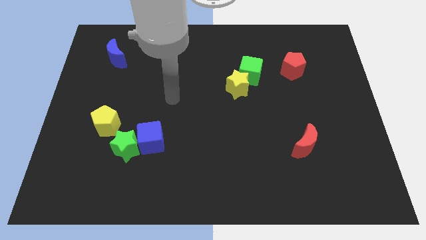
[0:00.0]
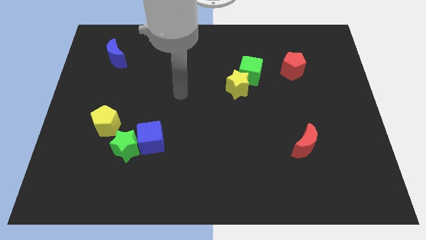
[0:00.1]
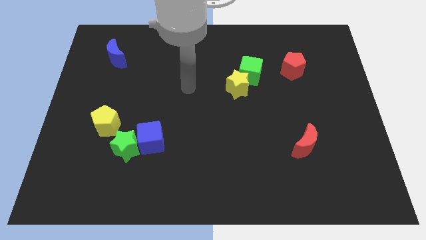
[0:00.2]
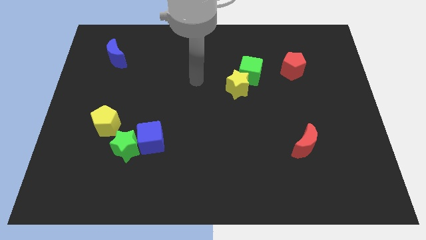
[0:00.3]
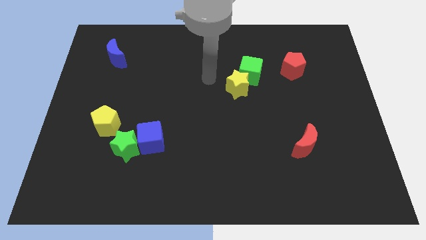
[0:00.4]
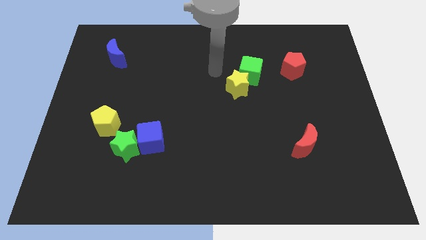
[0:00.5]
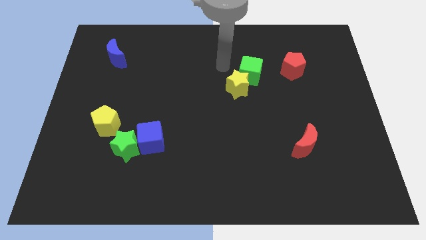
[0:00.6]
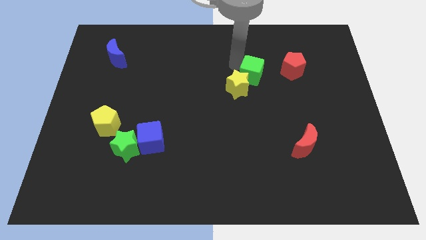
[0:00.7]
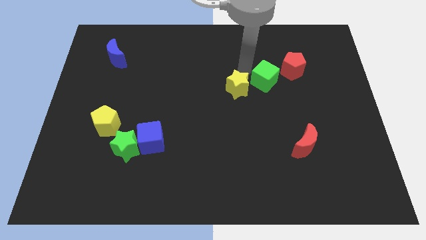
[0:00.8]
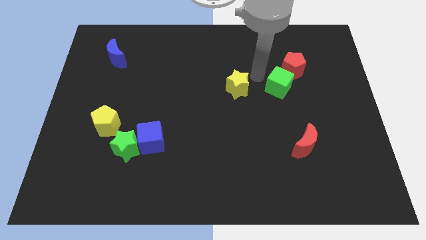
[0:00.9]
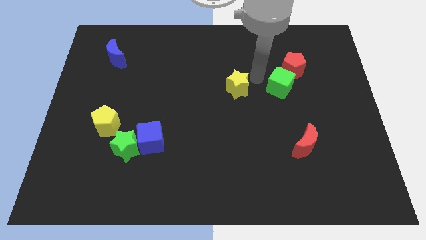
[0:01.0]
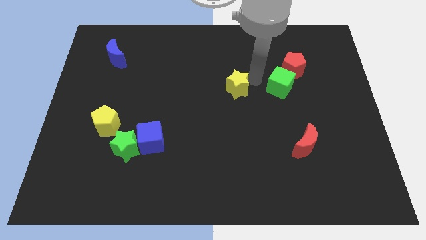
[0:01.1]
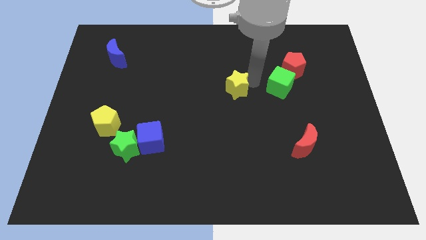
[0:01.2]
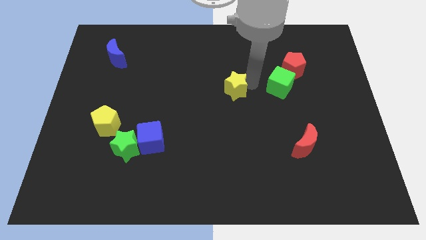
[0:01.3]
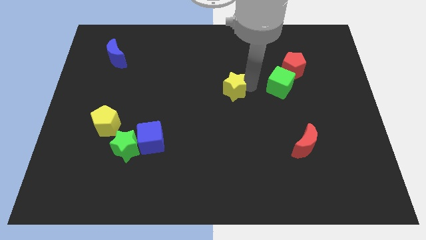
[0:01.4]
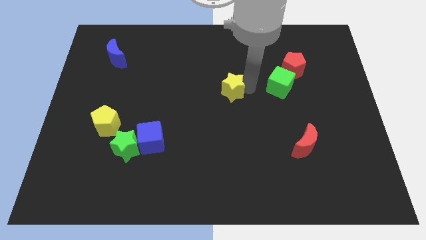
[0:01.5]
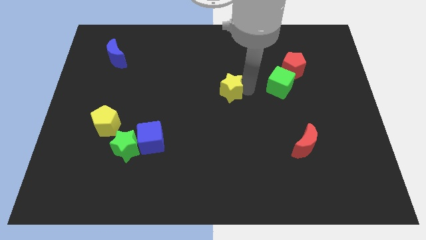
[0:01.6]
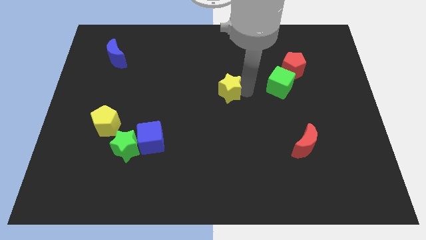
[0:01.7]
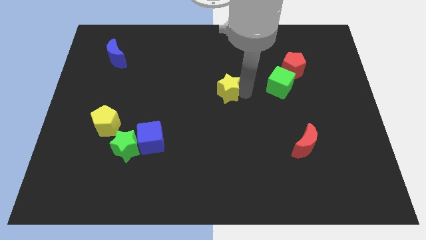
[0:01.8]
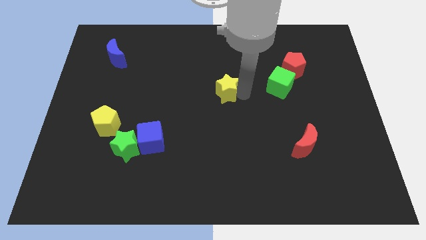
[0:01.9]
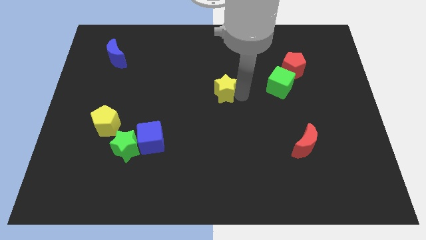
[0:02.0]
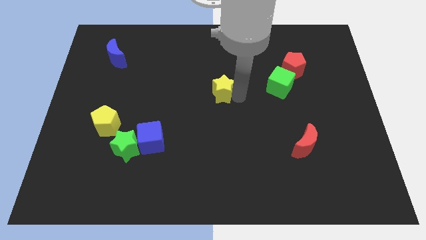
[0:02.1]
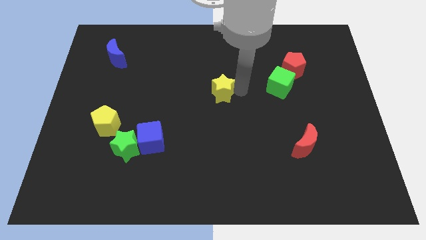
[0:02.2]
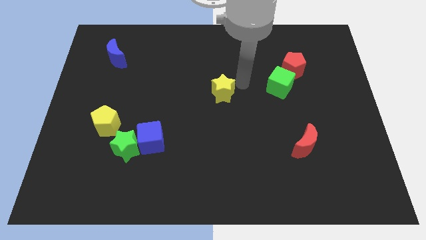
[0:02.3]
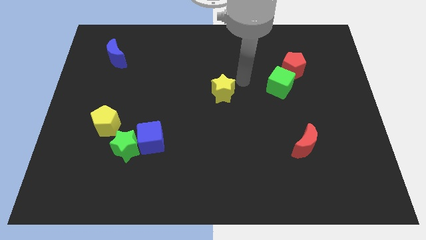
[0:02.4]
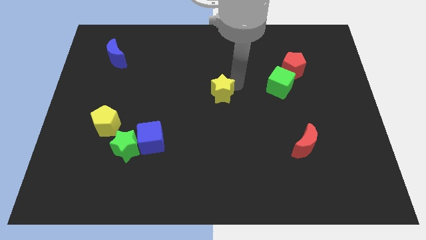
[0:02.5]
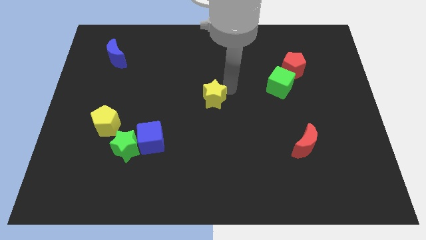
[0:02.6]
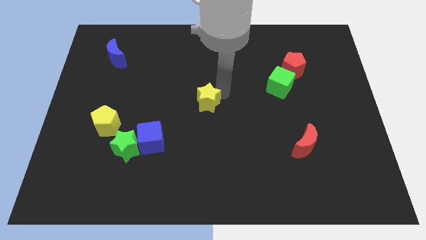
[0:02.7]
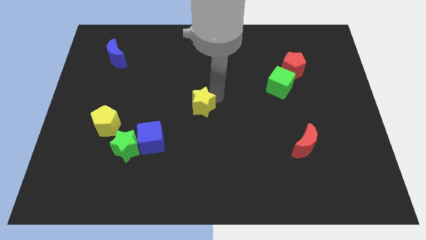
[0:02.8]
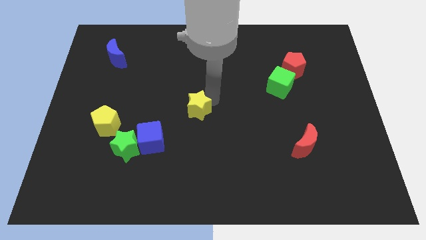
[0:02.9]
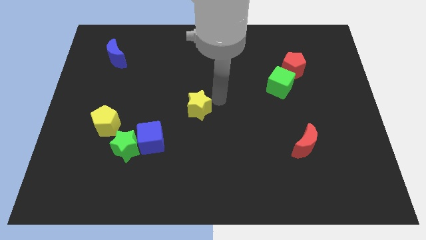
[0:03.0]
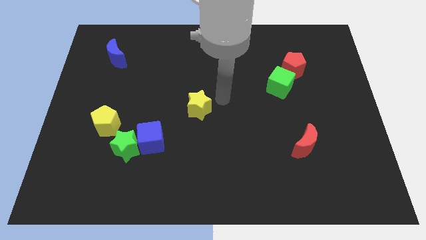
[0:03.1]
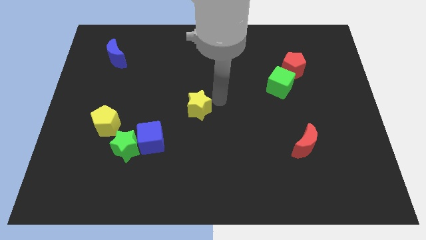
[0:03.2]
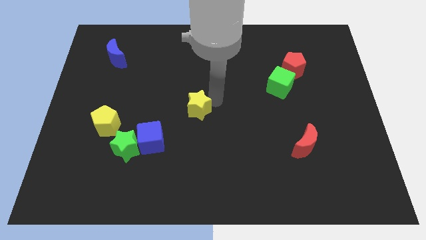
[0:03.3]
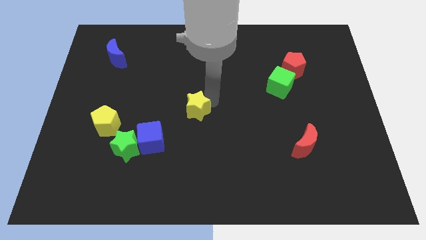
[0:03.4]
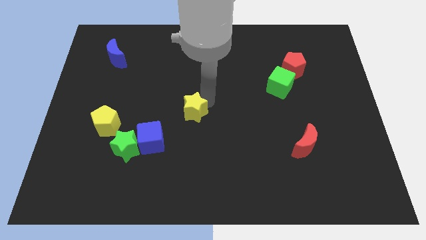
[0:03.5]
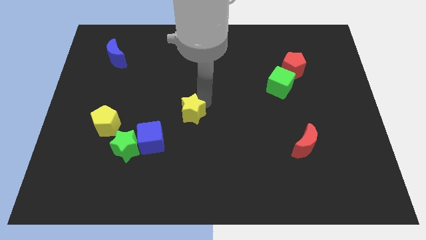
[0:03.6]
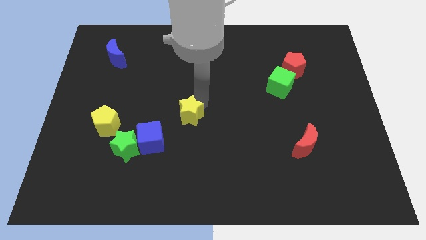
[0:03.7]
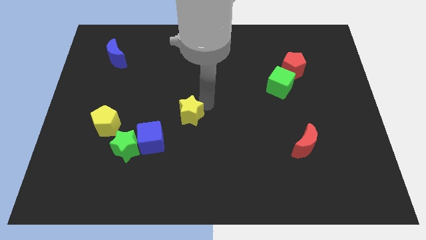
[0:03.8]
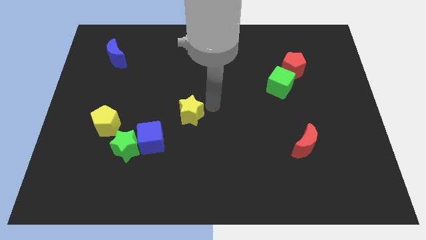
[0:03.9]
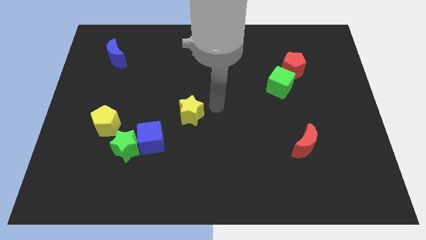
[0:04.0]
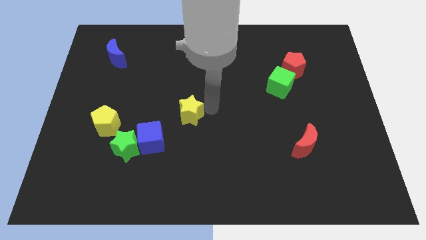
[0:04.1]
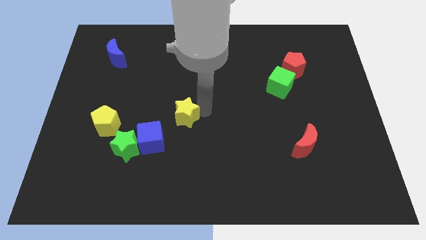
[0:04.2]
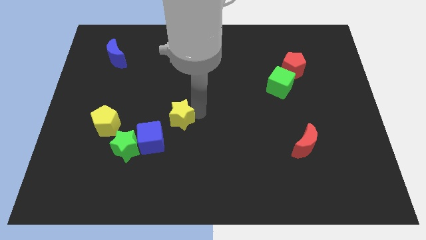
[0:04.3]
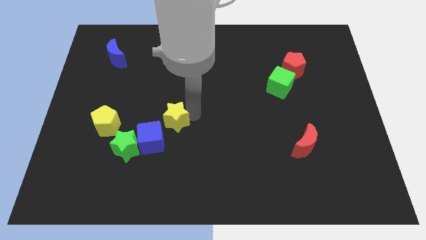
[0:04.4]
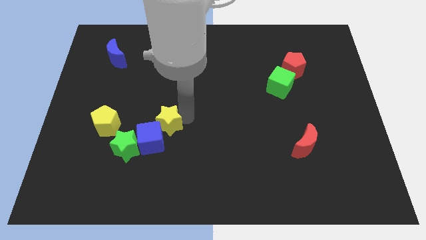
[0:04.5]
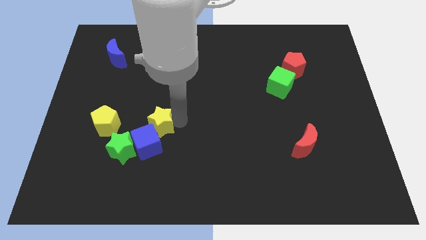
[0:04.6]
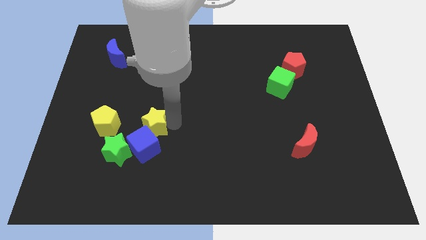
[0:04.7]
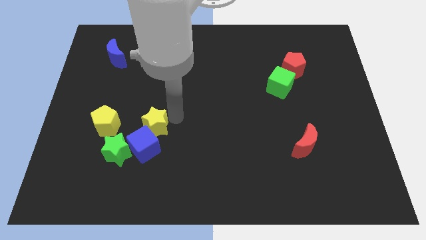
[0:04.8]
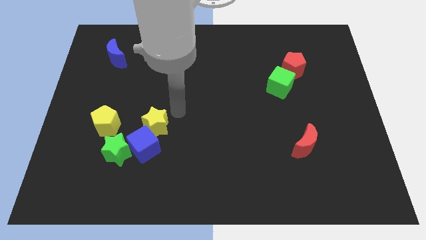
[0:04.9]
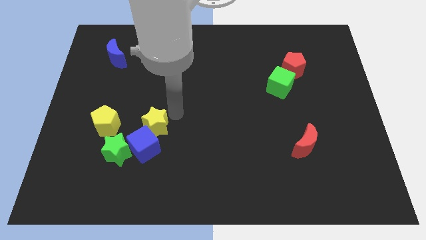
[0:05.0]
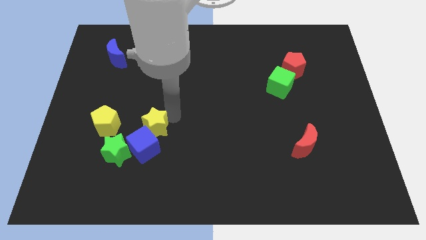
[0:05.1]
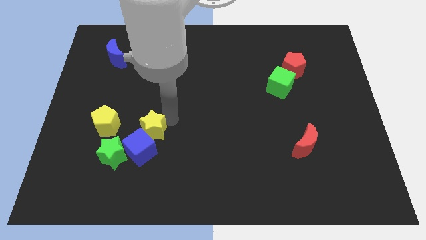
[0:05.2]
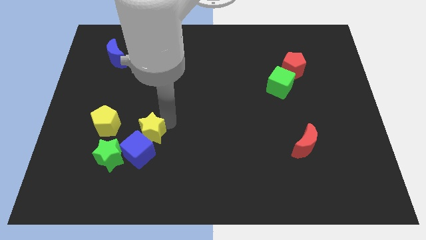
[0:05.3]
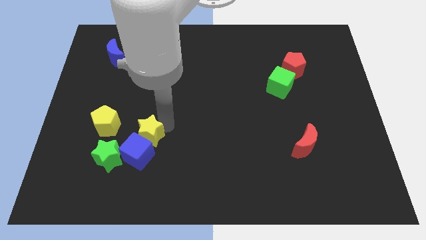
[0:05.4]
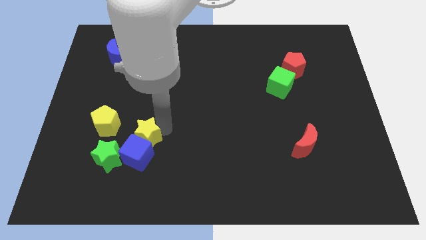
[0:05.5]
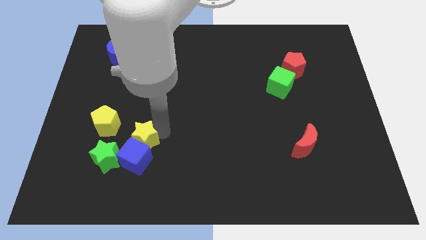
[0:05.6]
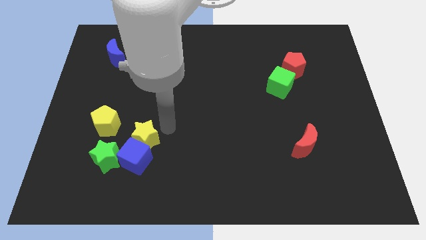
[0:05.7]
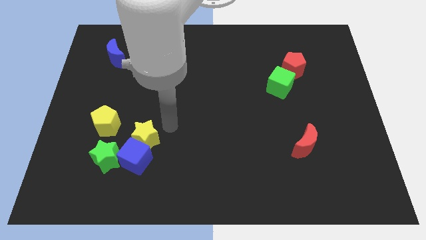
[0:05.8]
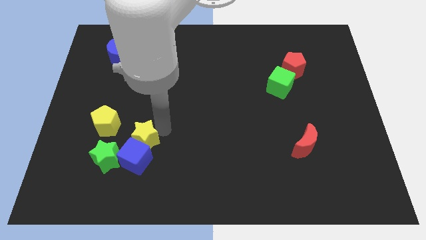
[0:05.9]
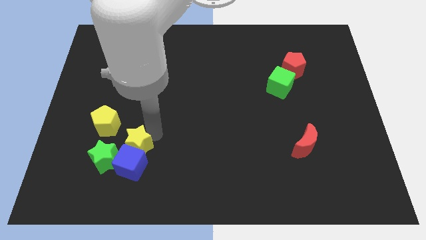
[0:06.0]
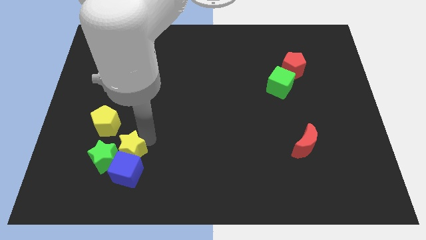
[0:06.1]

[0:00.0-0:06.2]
put the yellow star towards the green star

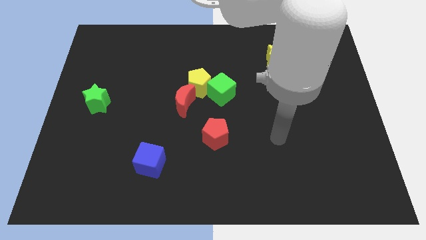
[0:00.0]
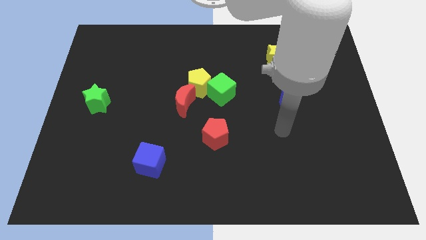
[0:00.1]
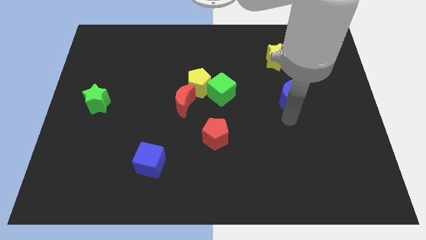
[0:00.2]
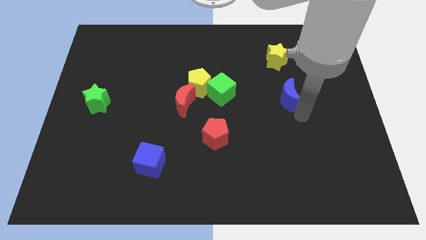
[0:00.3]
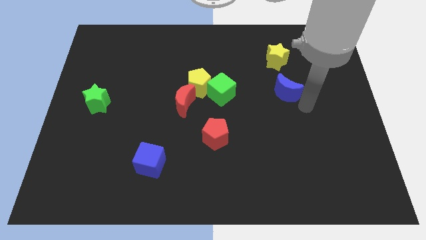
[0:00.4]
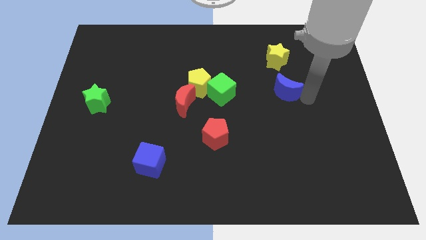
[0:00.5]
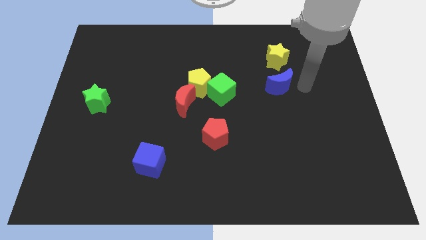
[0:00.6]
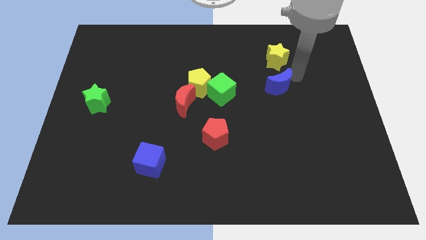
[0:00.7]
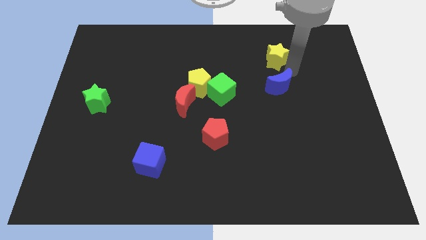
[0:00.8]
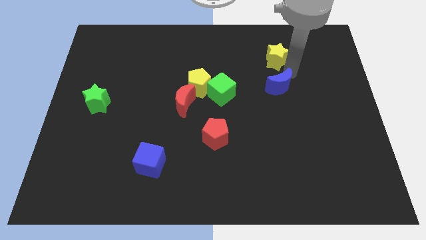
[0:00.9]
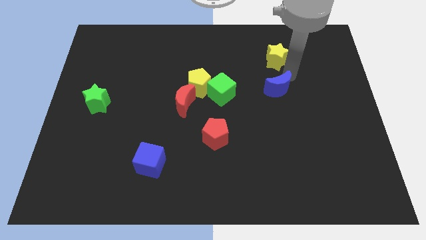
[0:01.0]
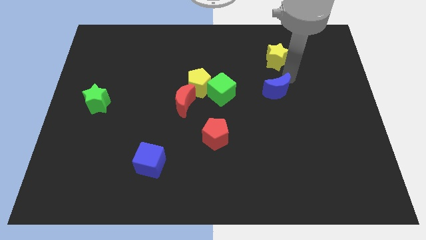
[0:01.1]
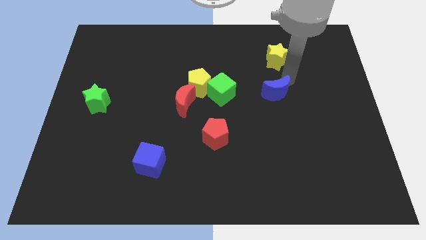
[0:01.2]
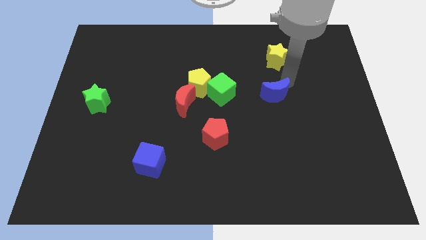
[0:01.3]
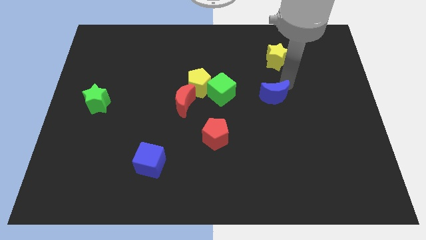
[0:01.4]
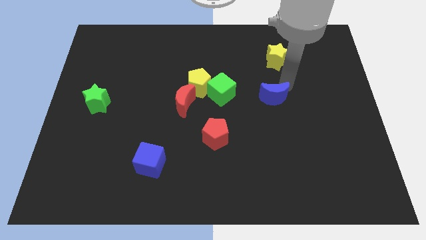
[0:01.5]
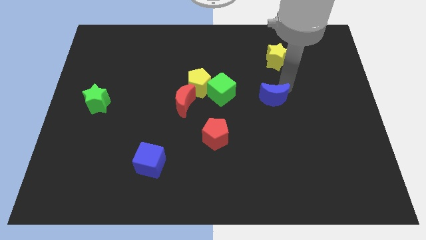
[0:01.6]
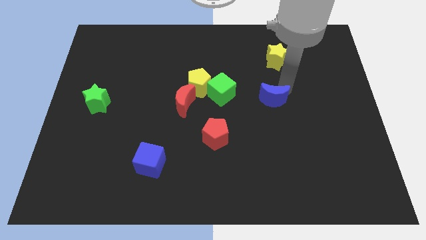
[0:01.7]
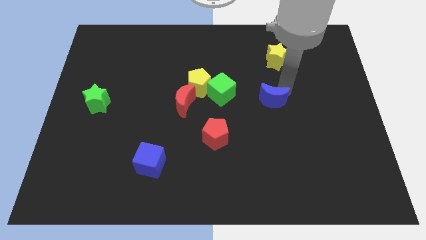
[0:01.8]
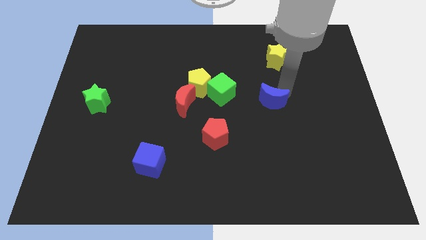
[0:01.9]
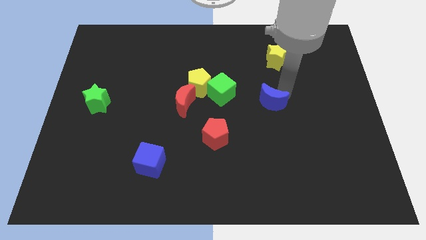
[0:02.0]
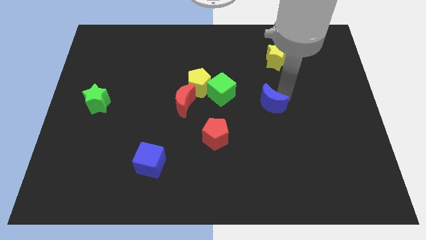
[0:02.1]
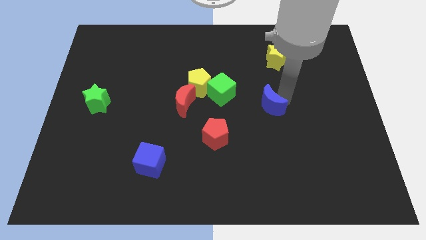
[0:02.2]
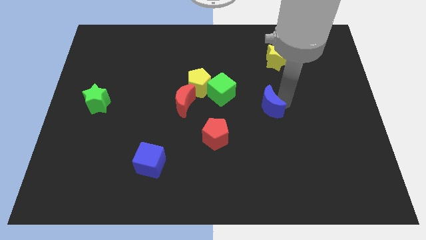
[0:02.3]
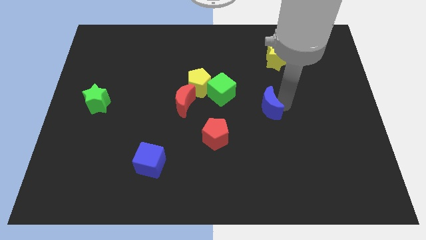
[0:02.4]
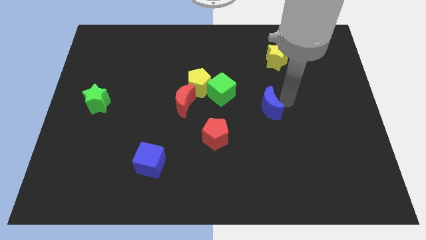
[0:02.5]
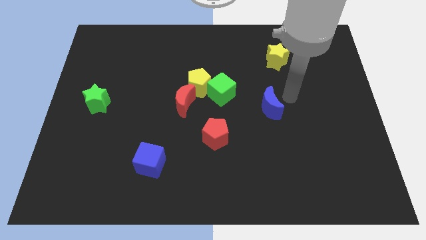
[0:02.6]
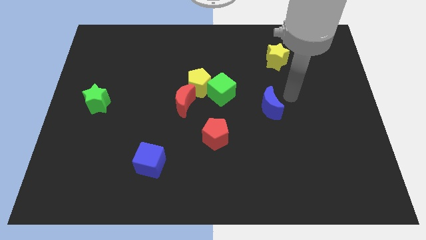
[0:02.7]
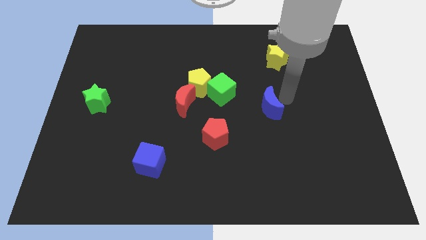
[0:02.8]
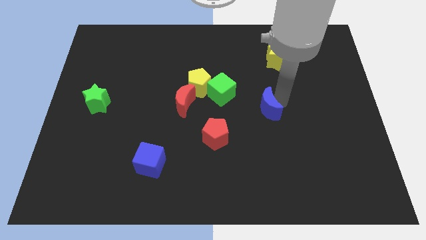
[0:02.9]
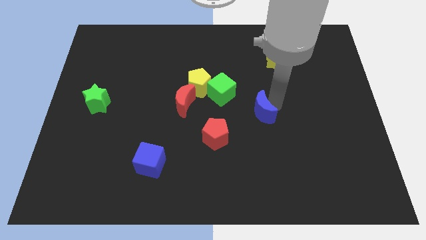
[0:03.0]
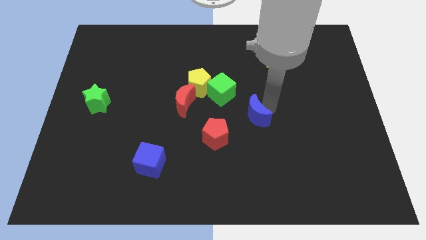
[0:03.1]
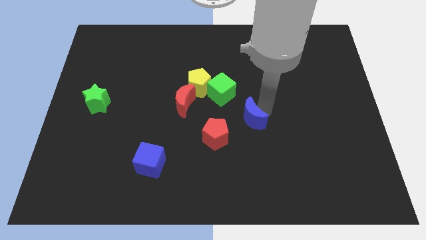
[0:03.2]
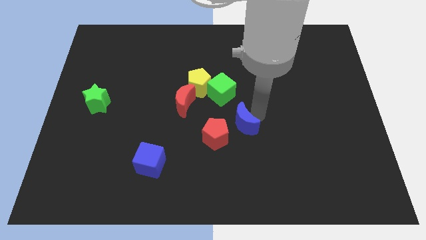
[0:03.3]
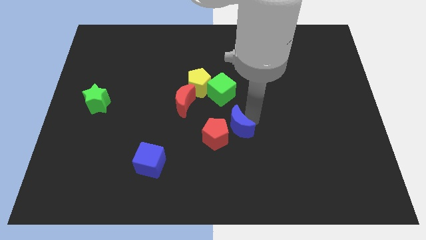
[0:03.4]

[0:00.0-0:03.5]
put the blue moon towards the red pentagon
